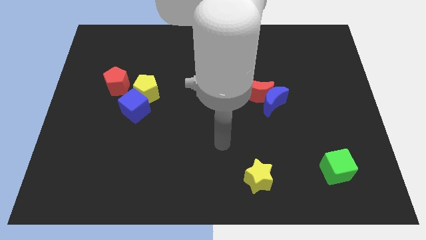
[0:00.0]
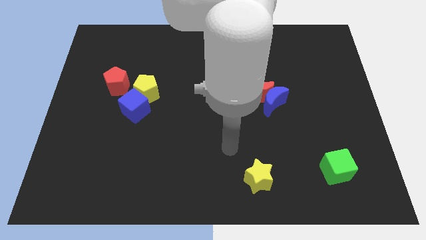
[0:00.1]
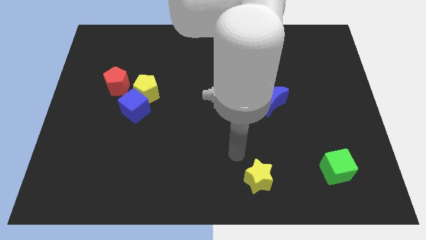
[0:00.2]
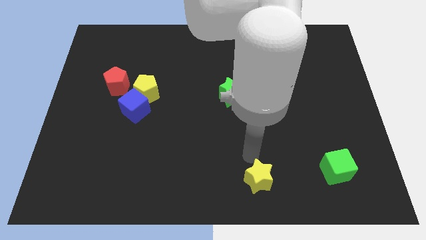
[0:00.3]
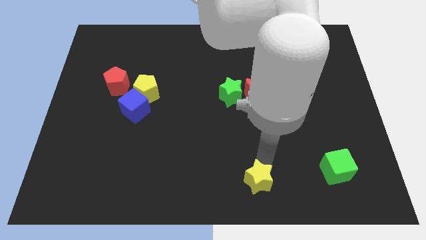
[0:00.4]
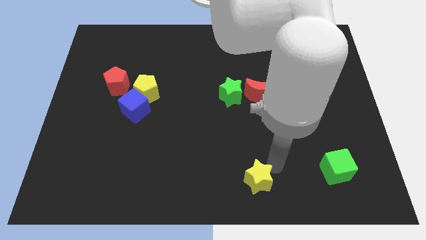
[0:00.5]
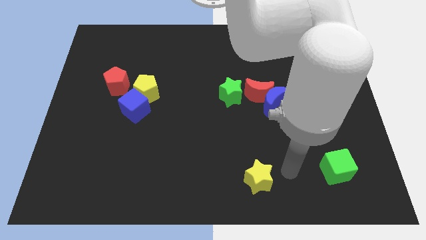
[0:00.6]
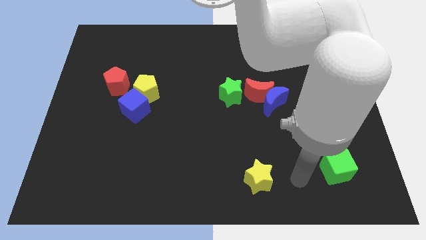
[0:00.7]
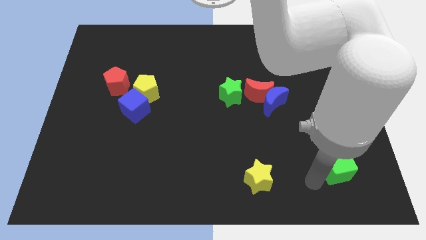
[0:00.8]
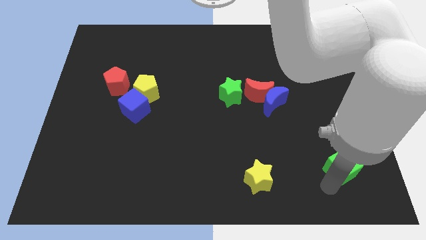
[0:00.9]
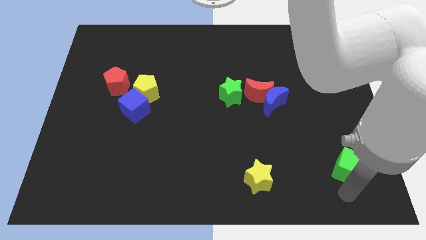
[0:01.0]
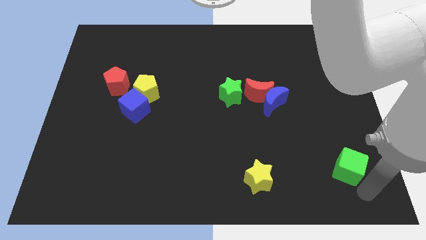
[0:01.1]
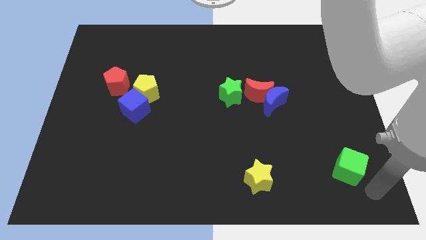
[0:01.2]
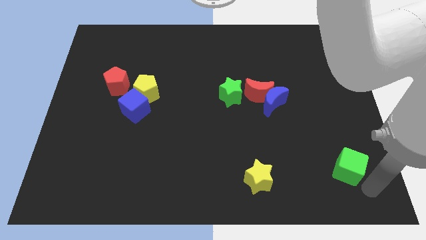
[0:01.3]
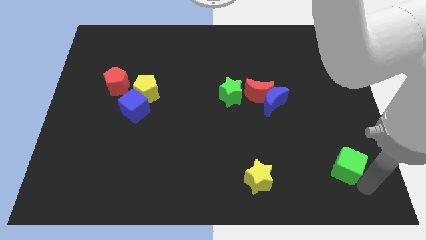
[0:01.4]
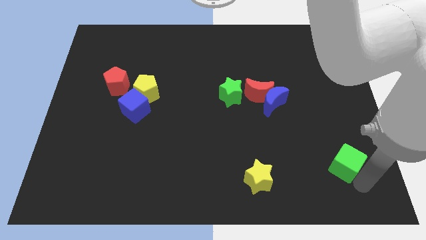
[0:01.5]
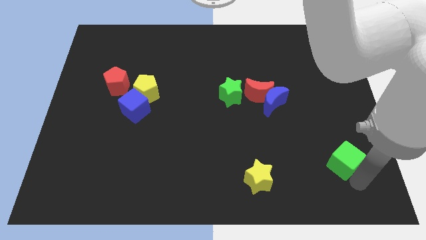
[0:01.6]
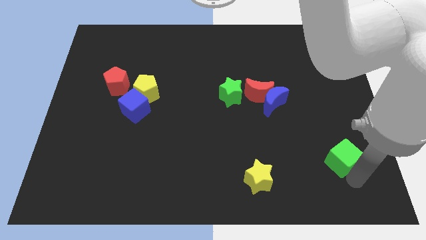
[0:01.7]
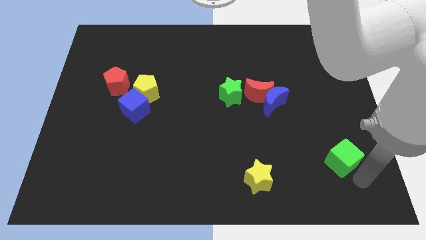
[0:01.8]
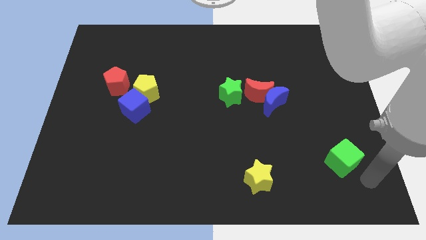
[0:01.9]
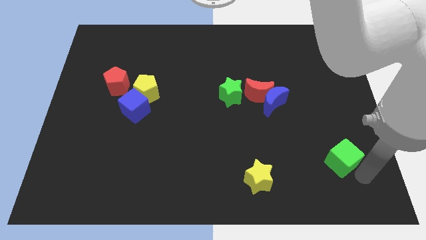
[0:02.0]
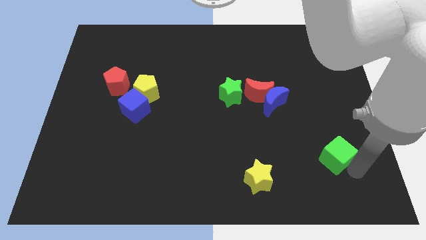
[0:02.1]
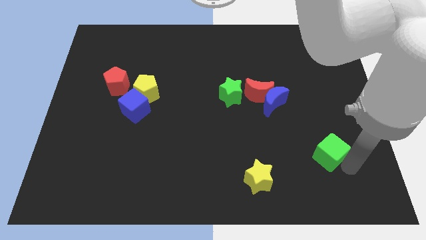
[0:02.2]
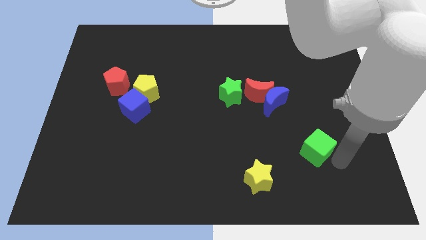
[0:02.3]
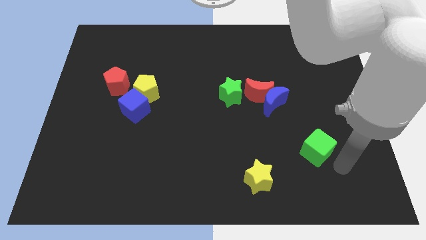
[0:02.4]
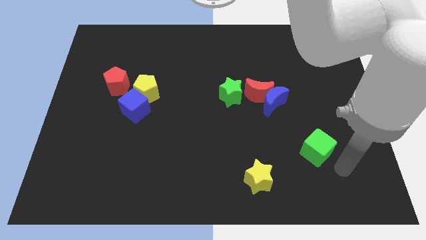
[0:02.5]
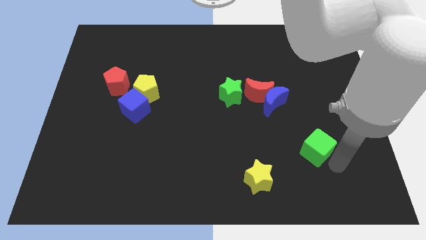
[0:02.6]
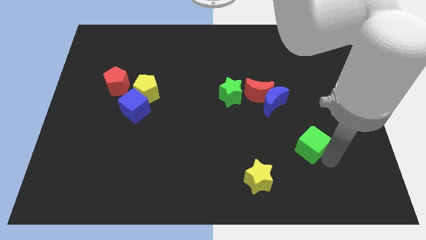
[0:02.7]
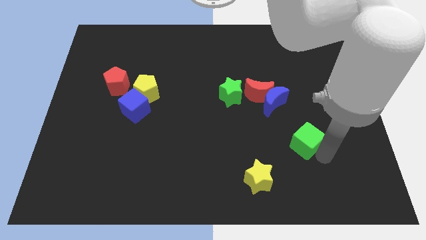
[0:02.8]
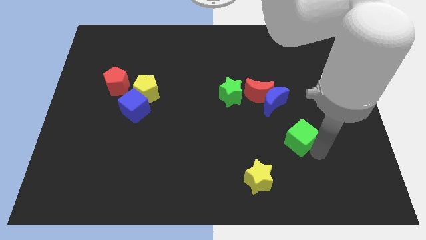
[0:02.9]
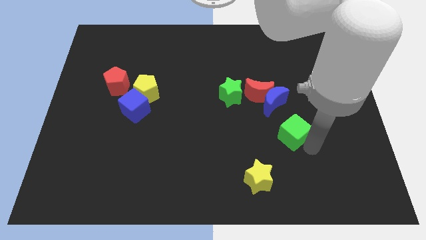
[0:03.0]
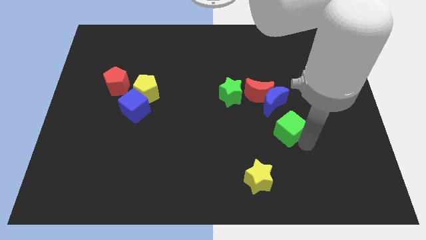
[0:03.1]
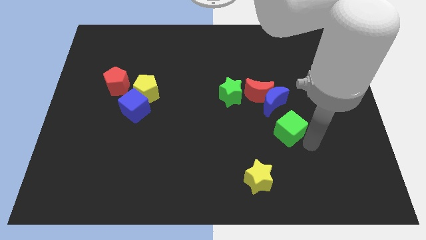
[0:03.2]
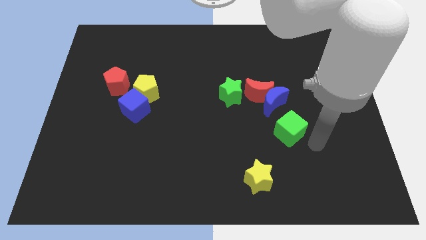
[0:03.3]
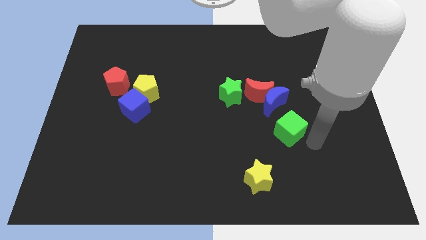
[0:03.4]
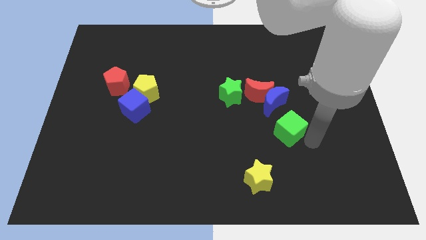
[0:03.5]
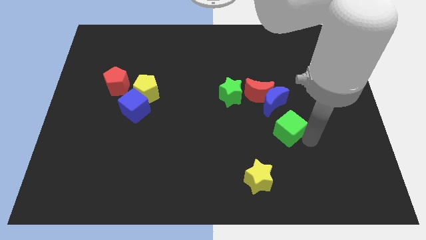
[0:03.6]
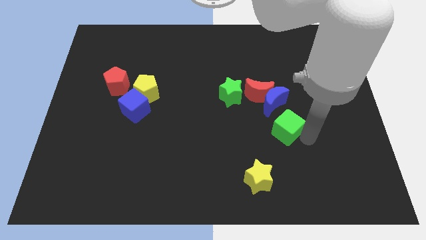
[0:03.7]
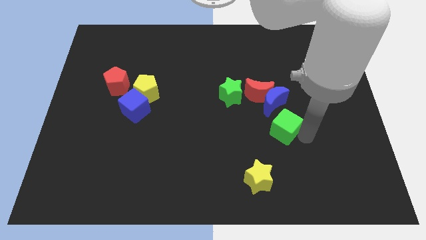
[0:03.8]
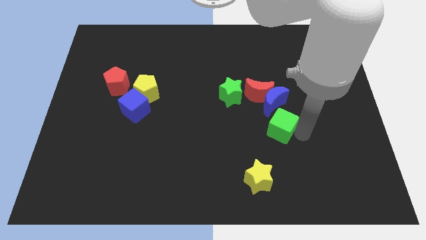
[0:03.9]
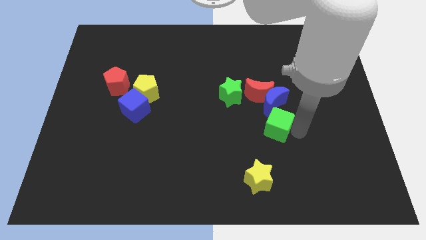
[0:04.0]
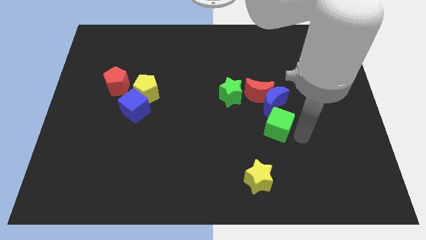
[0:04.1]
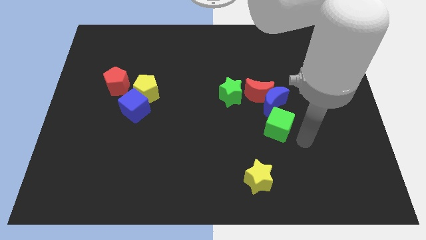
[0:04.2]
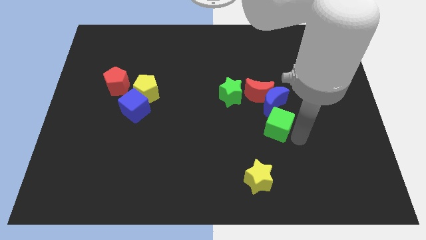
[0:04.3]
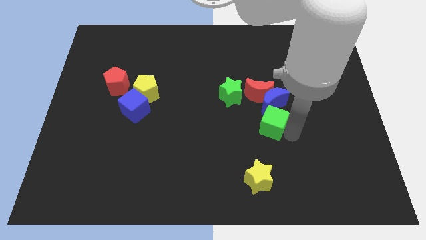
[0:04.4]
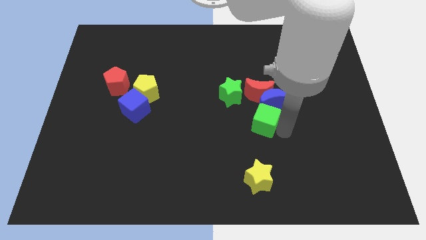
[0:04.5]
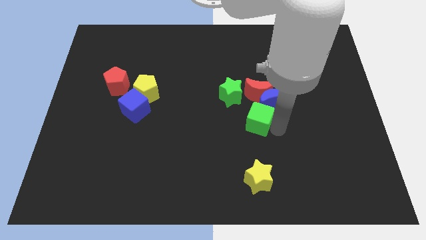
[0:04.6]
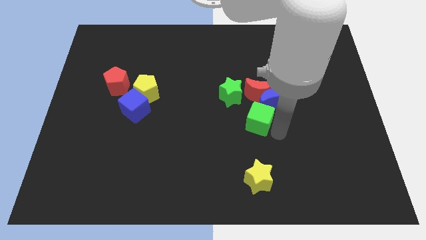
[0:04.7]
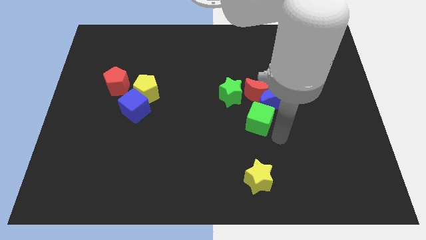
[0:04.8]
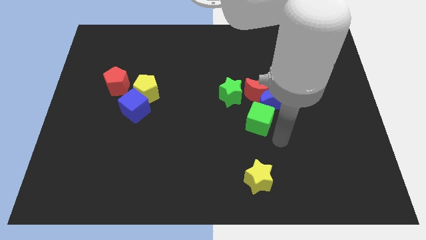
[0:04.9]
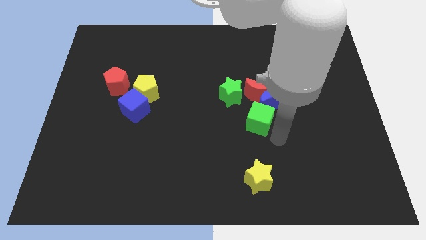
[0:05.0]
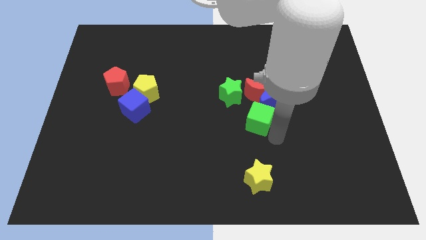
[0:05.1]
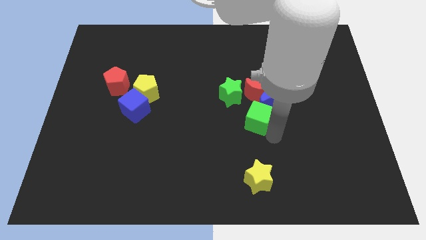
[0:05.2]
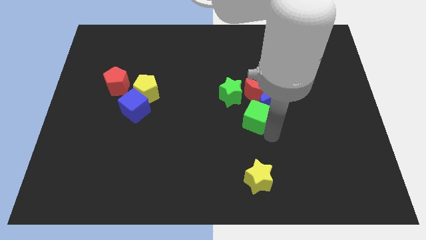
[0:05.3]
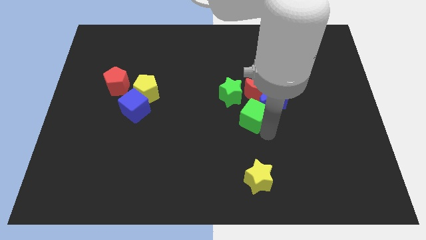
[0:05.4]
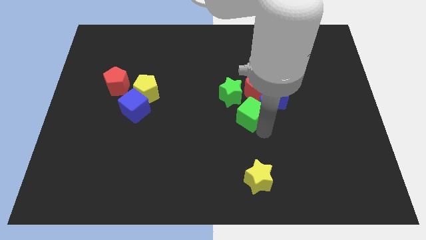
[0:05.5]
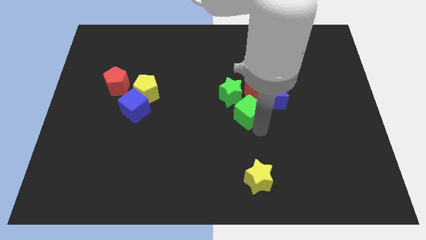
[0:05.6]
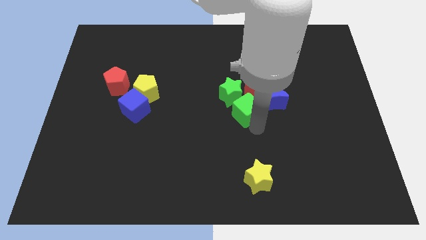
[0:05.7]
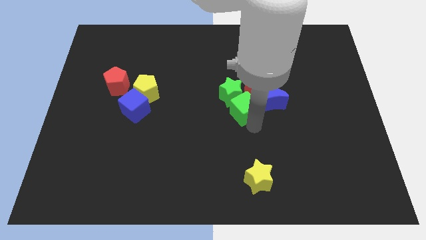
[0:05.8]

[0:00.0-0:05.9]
put the green cube close to the green star
